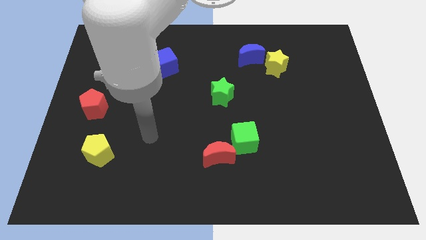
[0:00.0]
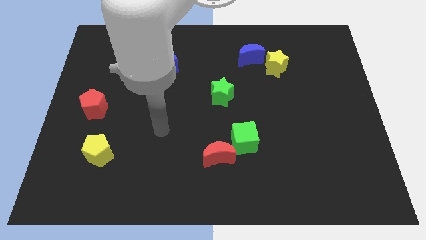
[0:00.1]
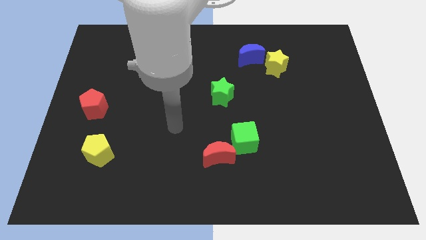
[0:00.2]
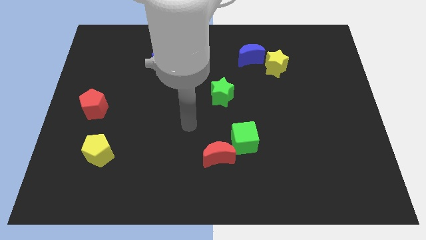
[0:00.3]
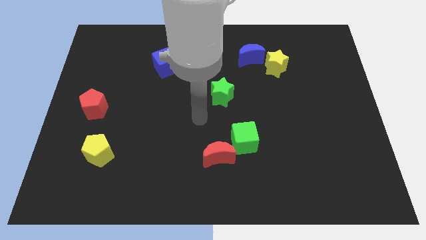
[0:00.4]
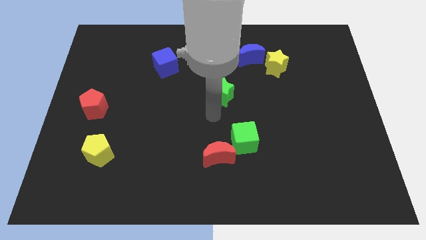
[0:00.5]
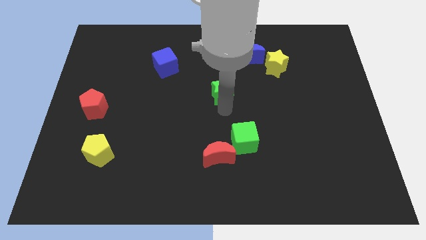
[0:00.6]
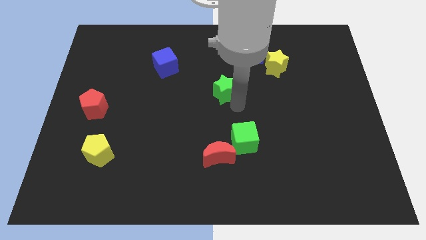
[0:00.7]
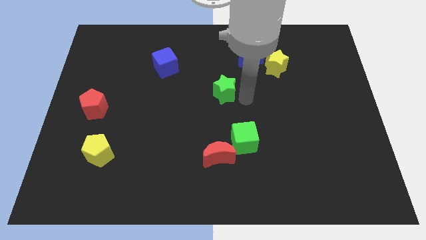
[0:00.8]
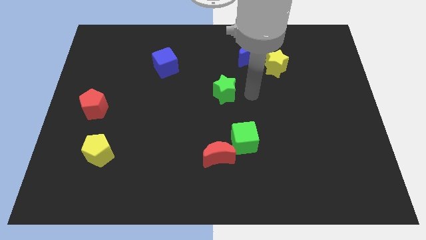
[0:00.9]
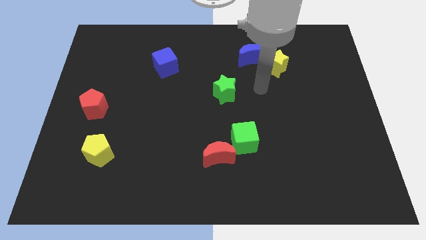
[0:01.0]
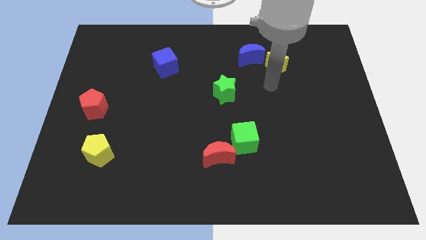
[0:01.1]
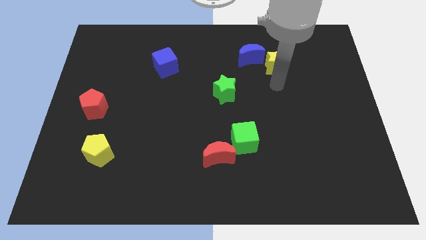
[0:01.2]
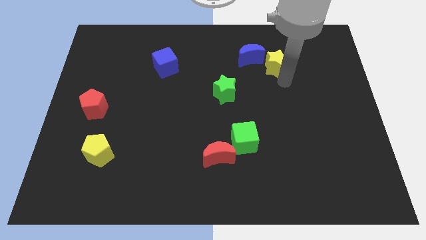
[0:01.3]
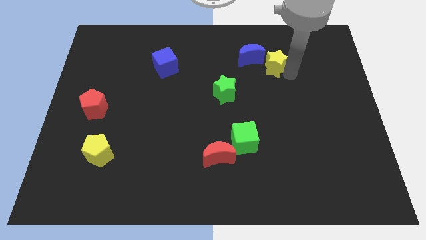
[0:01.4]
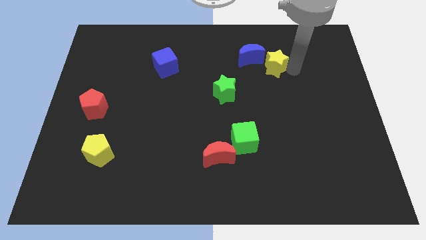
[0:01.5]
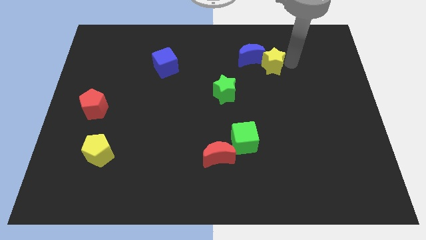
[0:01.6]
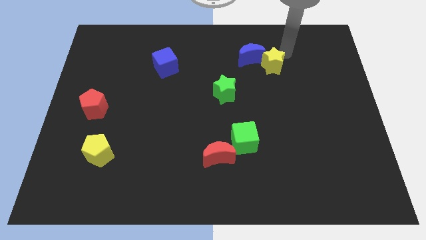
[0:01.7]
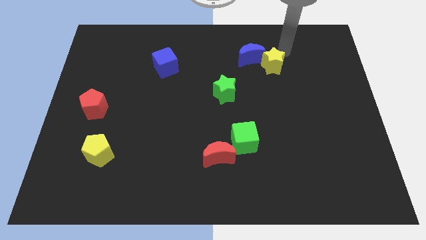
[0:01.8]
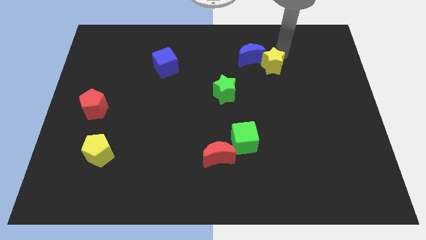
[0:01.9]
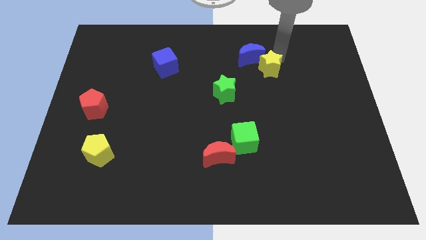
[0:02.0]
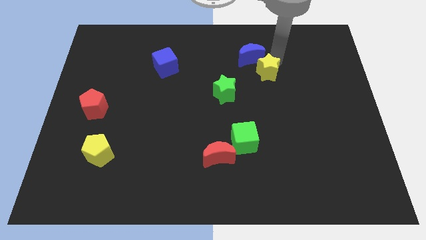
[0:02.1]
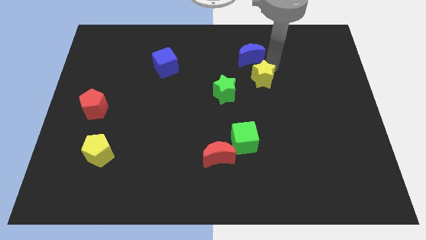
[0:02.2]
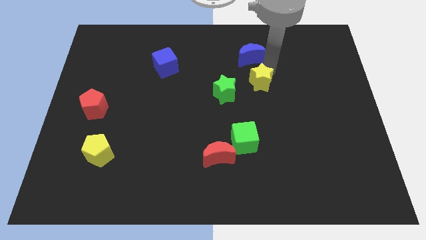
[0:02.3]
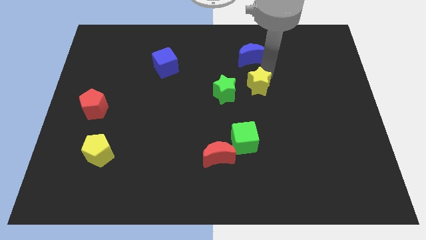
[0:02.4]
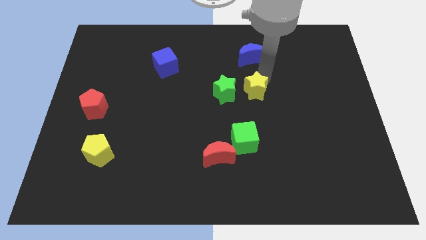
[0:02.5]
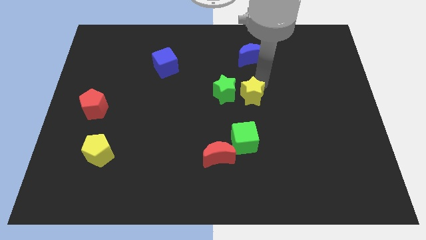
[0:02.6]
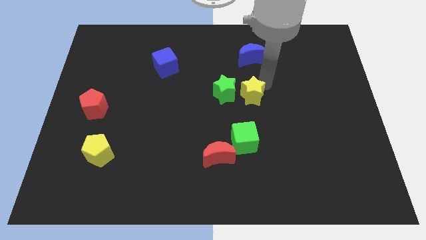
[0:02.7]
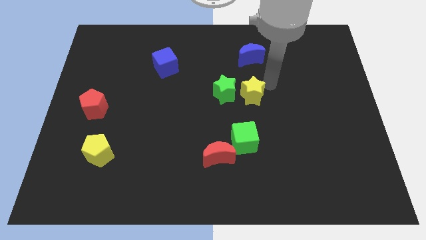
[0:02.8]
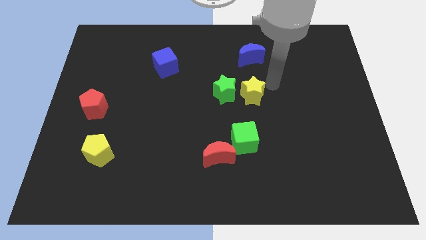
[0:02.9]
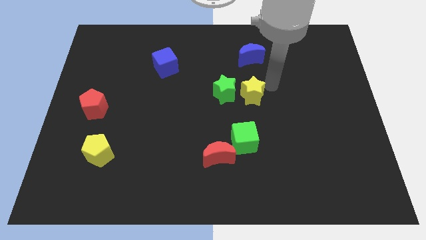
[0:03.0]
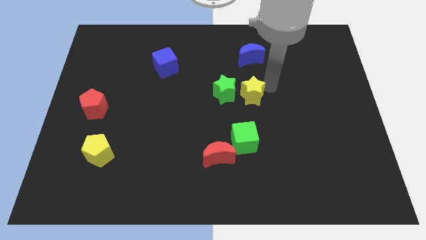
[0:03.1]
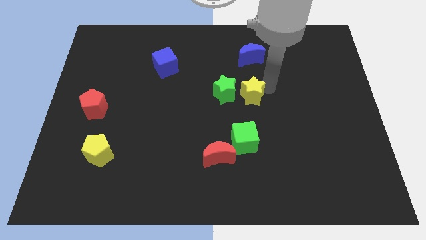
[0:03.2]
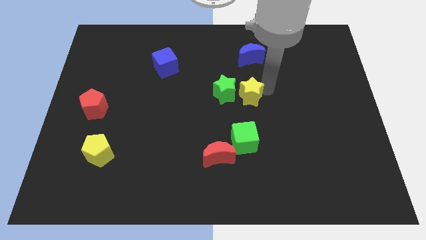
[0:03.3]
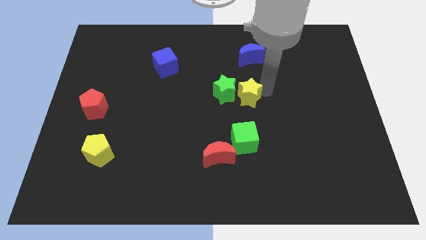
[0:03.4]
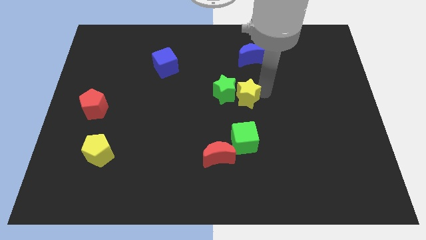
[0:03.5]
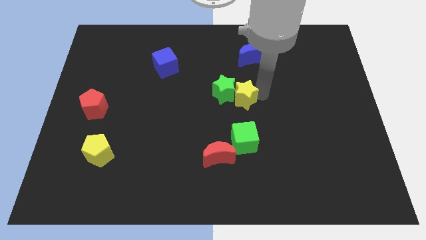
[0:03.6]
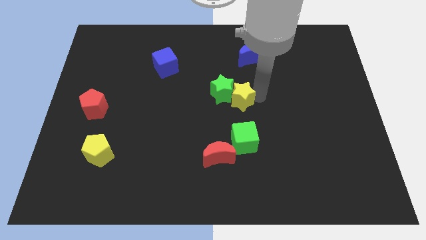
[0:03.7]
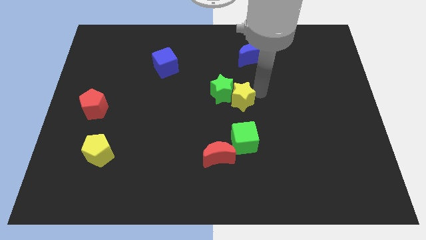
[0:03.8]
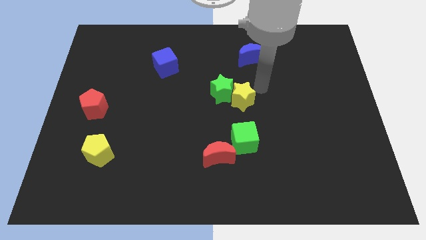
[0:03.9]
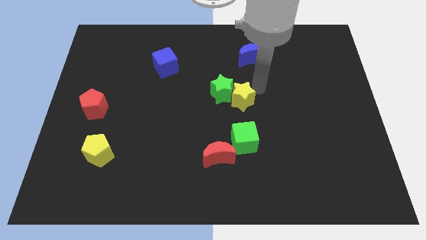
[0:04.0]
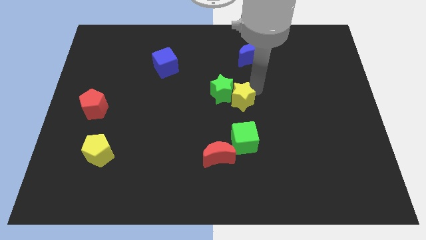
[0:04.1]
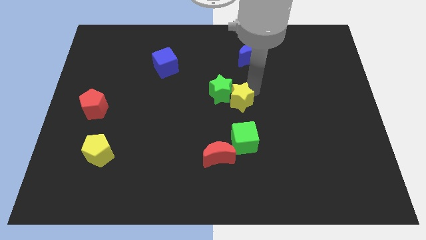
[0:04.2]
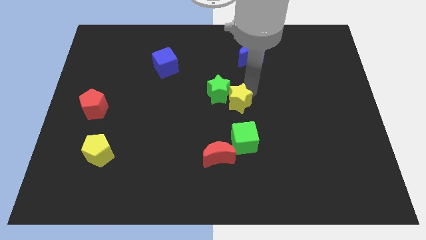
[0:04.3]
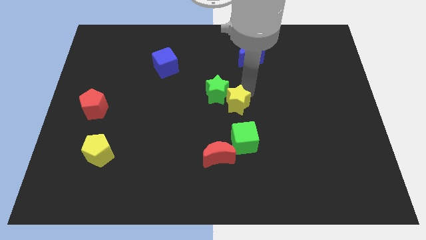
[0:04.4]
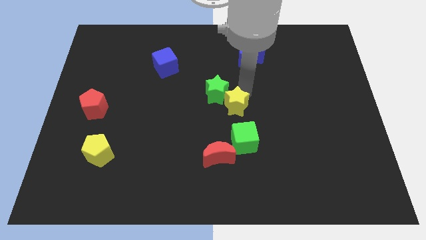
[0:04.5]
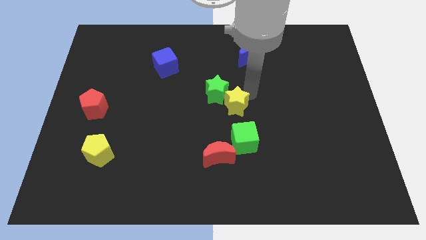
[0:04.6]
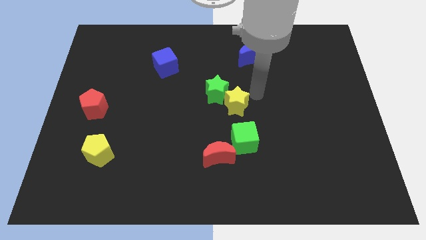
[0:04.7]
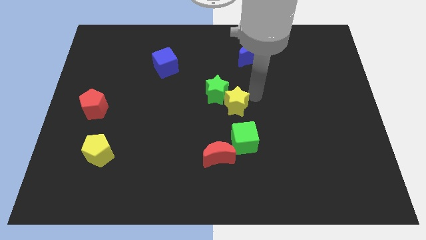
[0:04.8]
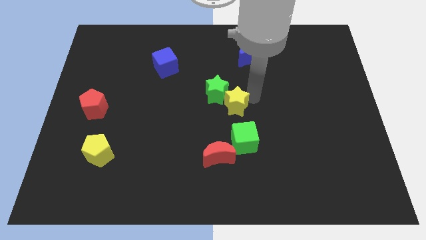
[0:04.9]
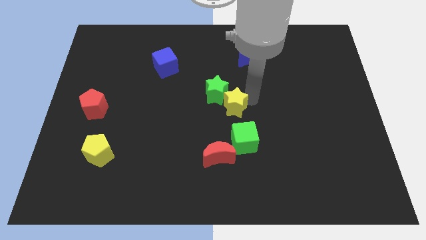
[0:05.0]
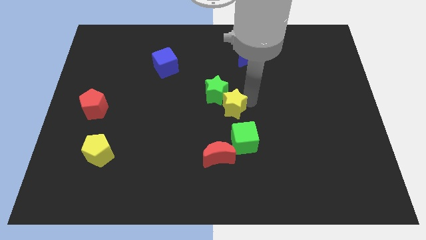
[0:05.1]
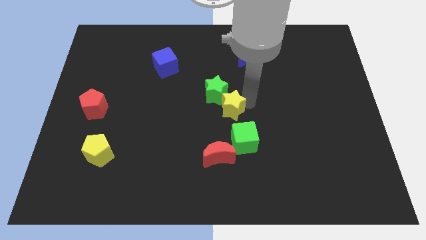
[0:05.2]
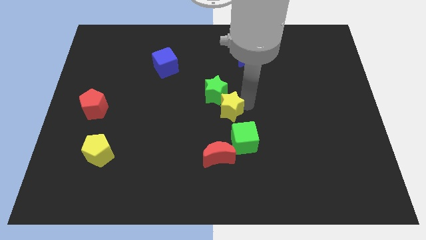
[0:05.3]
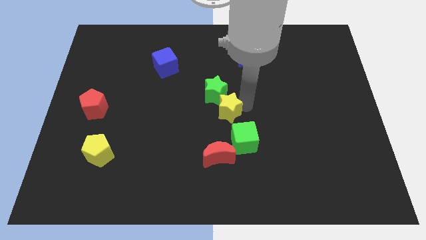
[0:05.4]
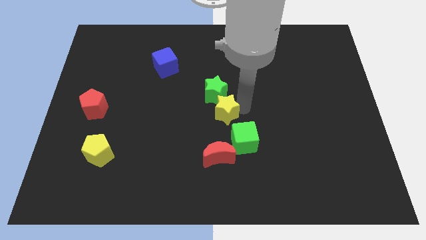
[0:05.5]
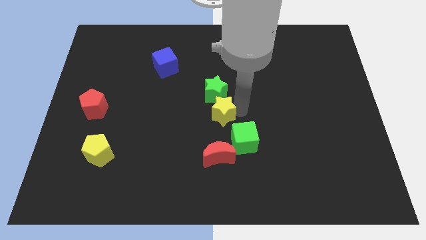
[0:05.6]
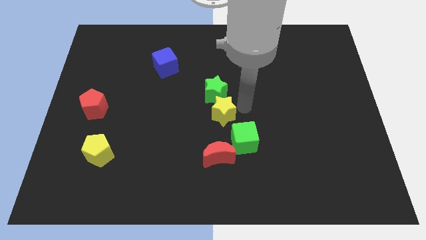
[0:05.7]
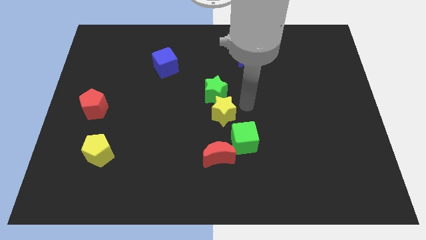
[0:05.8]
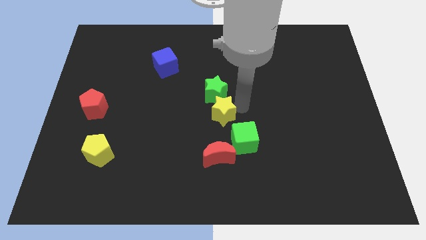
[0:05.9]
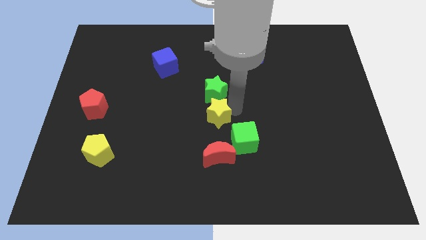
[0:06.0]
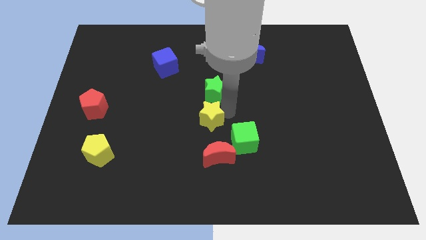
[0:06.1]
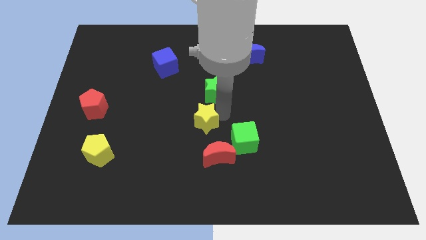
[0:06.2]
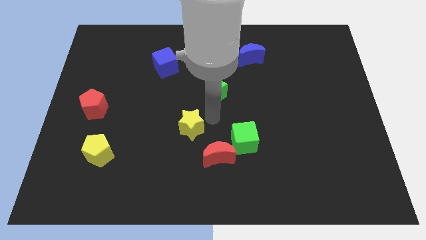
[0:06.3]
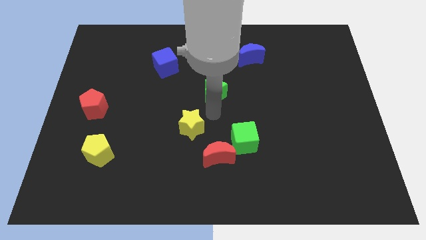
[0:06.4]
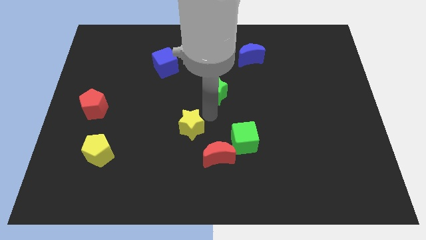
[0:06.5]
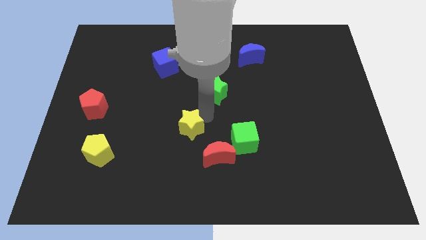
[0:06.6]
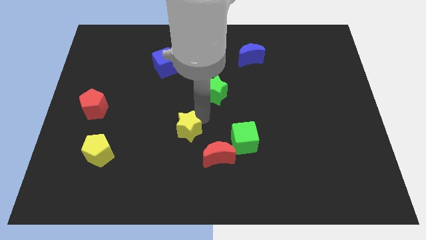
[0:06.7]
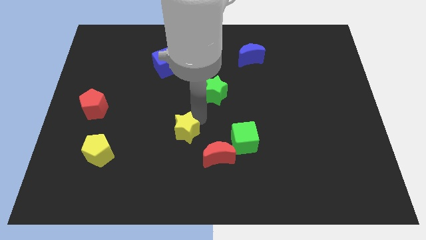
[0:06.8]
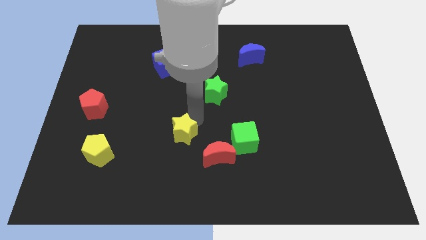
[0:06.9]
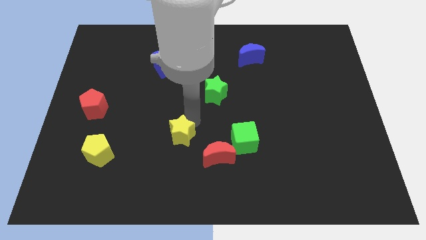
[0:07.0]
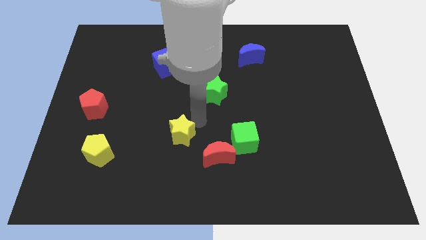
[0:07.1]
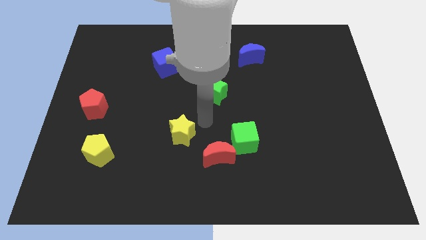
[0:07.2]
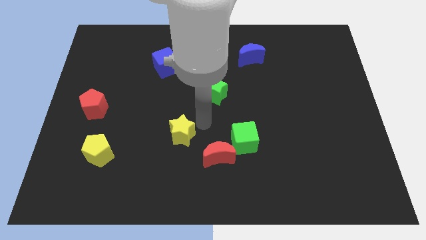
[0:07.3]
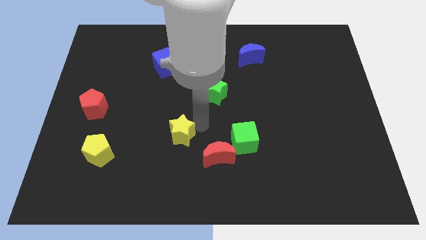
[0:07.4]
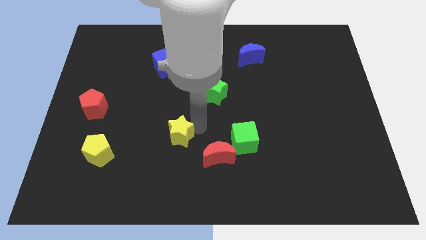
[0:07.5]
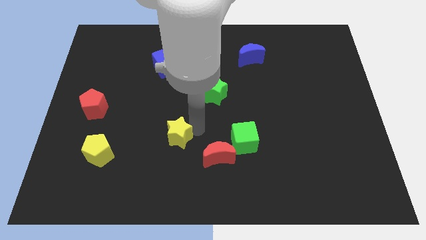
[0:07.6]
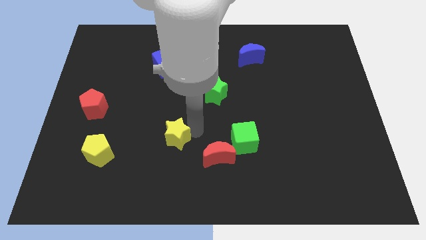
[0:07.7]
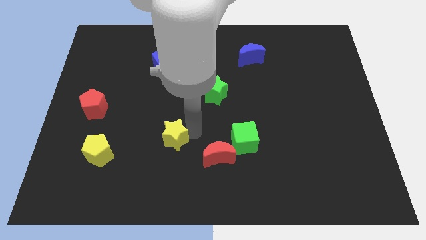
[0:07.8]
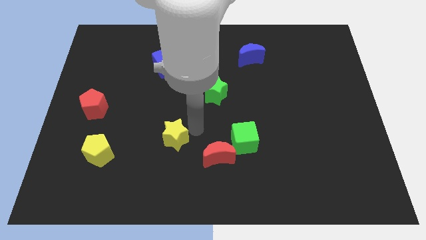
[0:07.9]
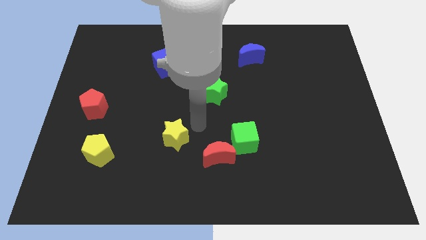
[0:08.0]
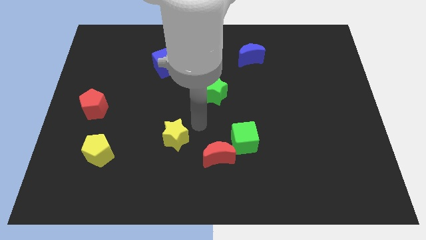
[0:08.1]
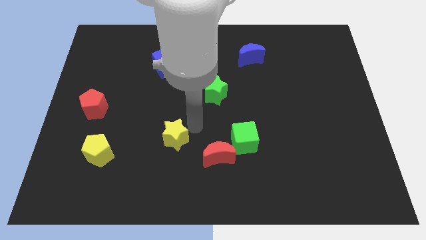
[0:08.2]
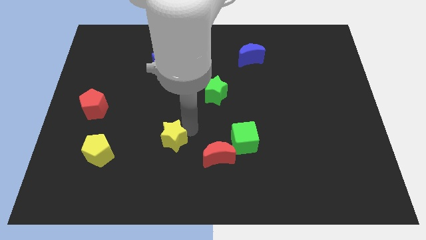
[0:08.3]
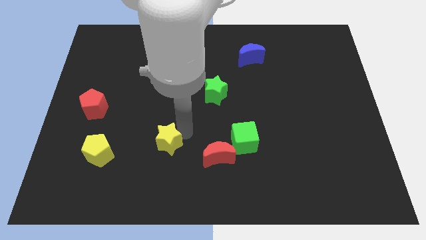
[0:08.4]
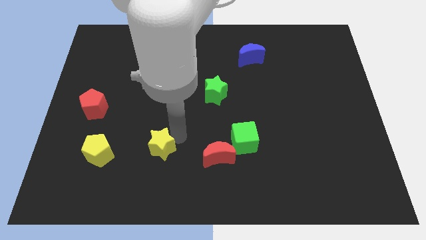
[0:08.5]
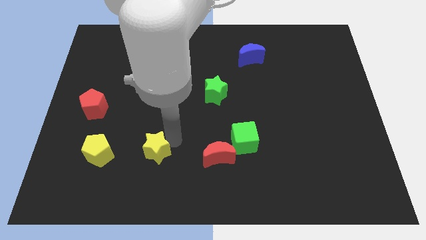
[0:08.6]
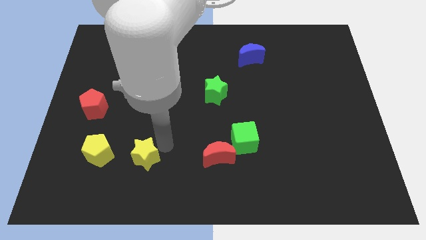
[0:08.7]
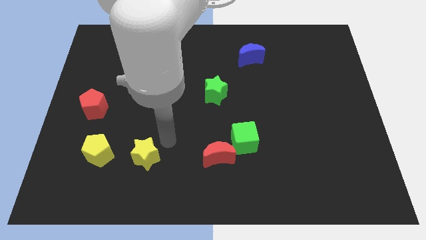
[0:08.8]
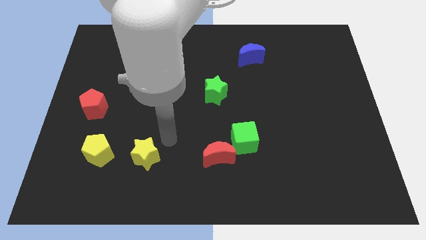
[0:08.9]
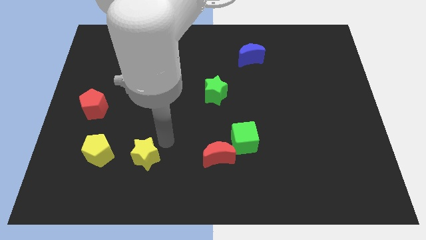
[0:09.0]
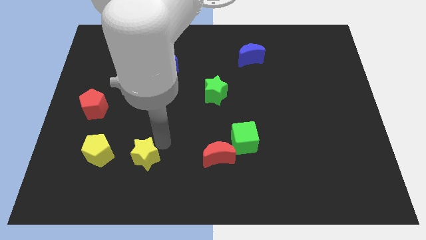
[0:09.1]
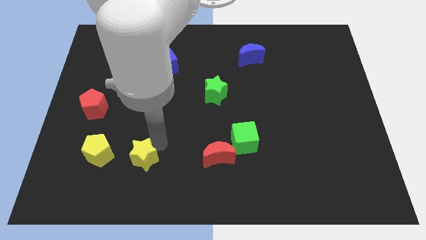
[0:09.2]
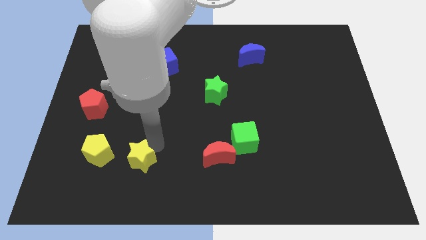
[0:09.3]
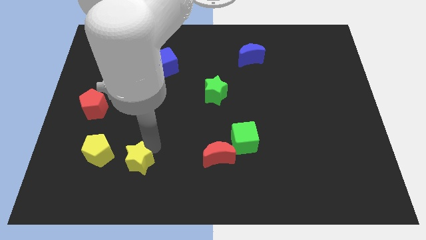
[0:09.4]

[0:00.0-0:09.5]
move the yellow star diagonally down and to the right of the yellow pentagon
